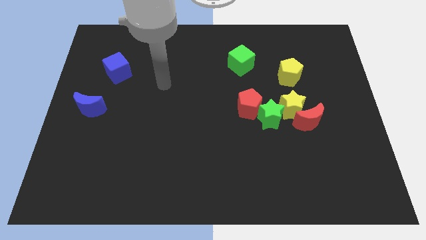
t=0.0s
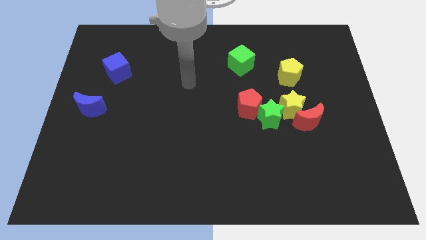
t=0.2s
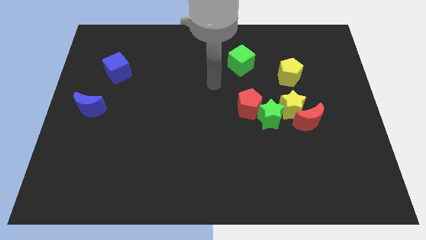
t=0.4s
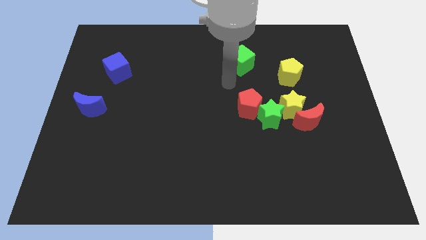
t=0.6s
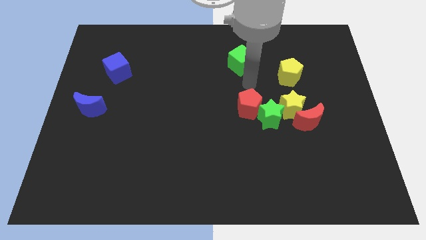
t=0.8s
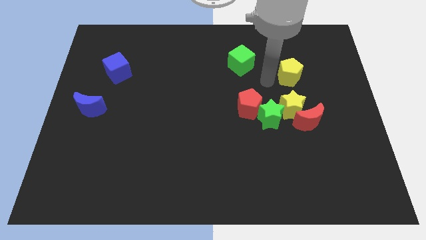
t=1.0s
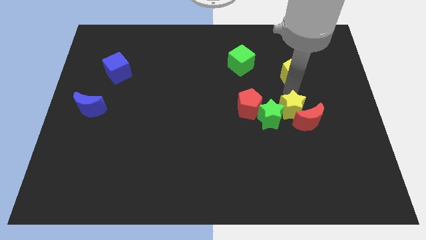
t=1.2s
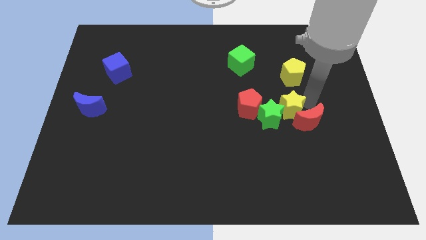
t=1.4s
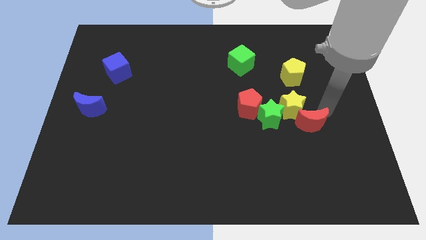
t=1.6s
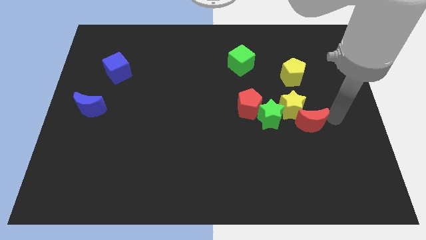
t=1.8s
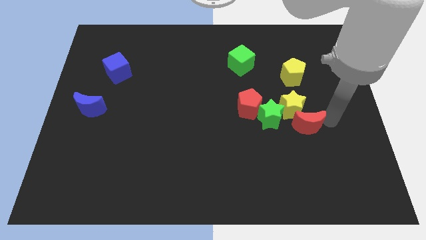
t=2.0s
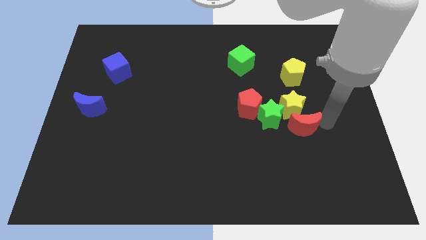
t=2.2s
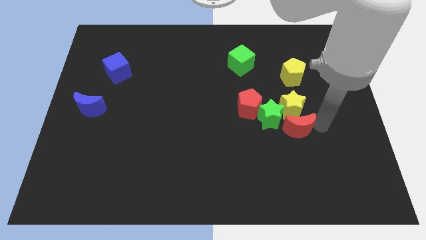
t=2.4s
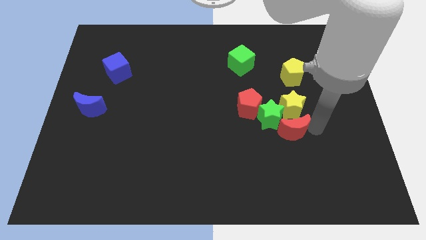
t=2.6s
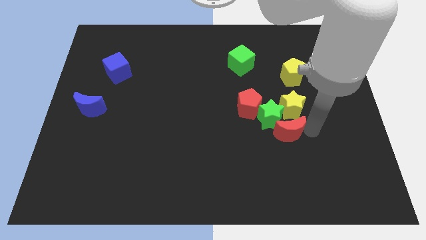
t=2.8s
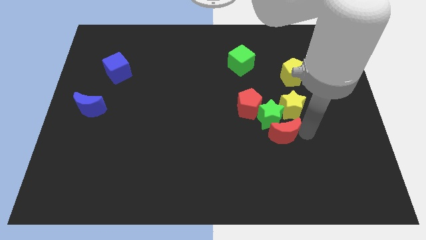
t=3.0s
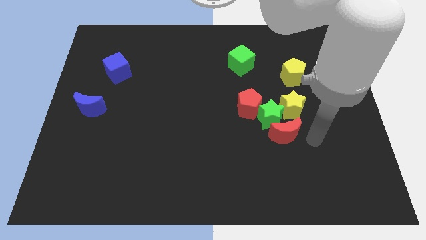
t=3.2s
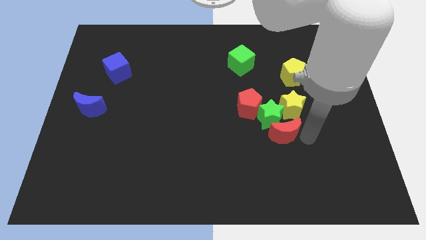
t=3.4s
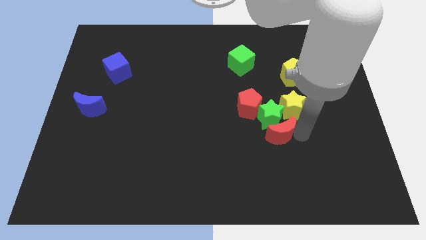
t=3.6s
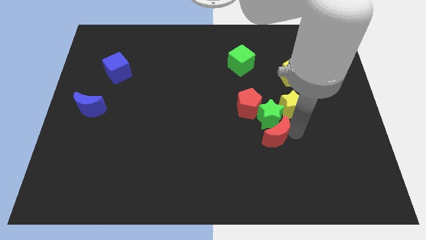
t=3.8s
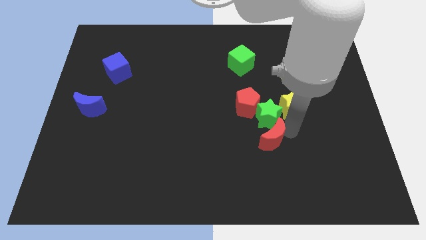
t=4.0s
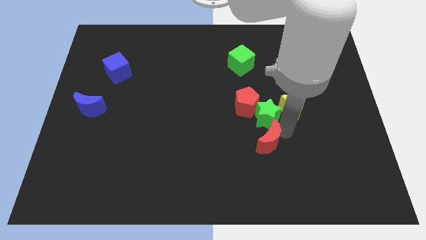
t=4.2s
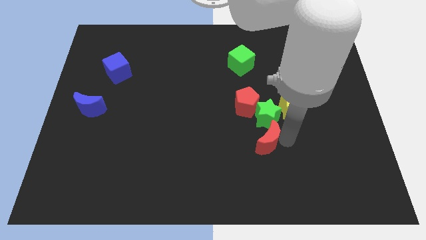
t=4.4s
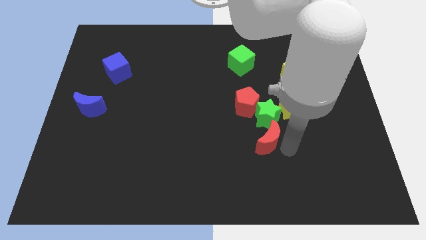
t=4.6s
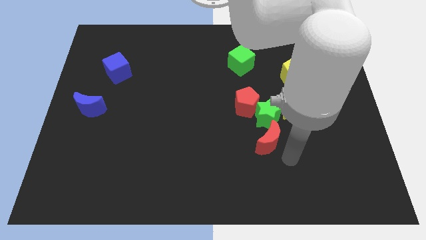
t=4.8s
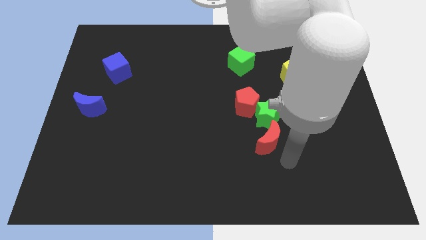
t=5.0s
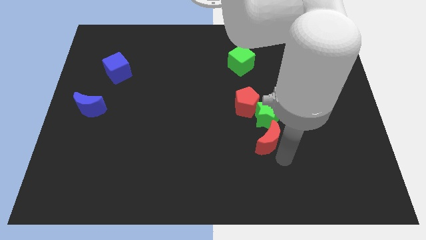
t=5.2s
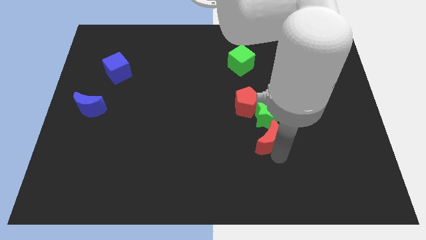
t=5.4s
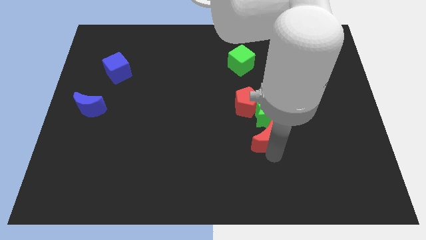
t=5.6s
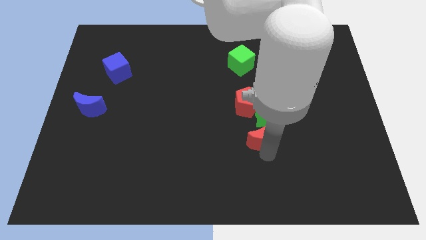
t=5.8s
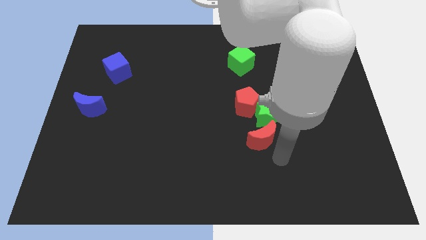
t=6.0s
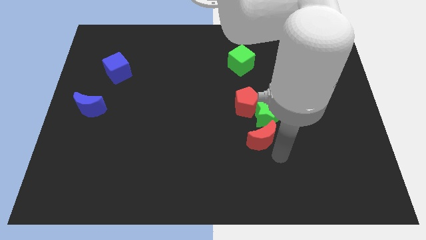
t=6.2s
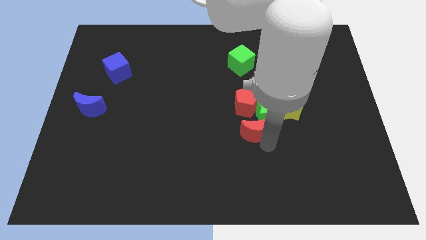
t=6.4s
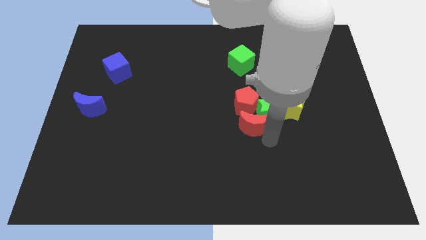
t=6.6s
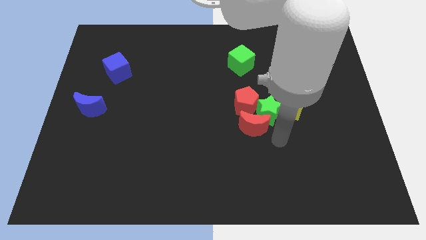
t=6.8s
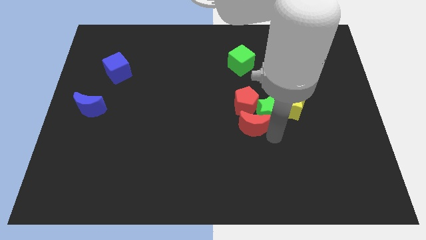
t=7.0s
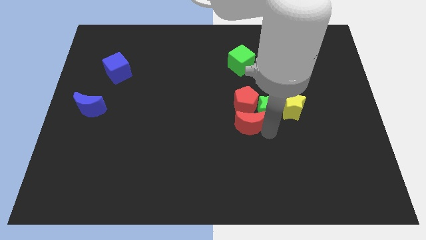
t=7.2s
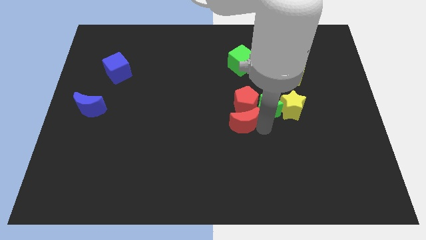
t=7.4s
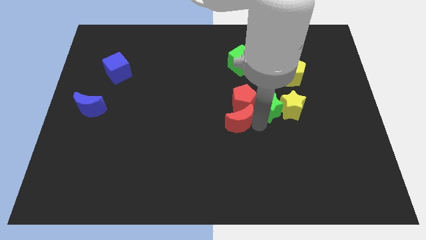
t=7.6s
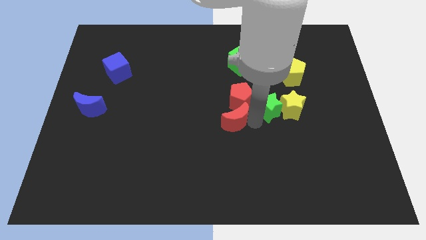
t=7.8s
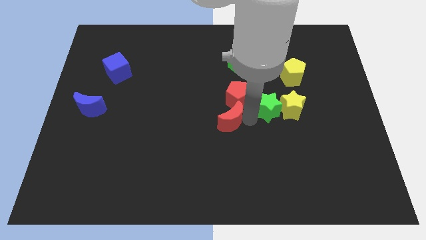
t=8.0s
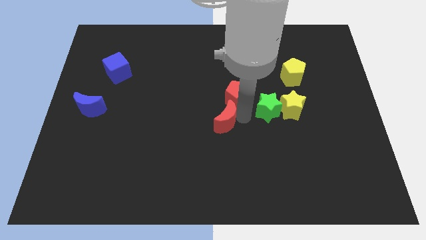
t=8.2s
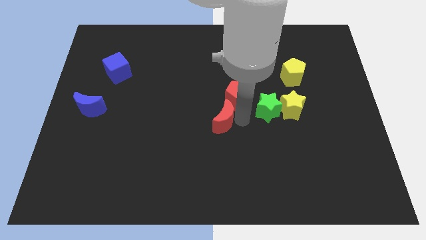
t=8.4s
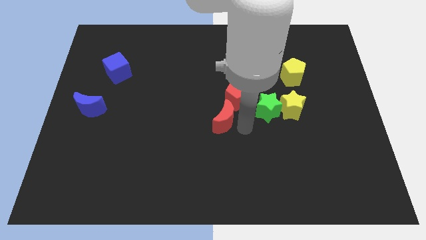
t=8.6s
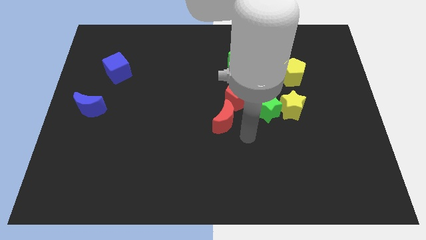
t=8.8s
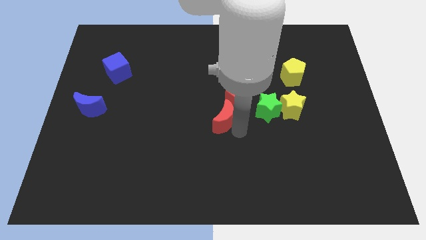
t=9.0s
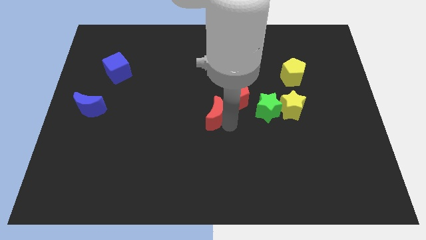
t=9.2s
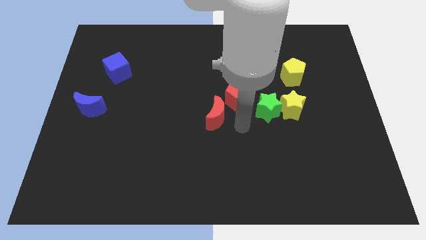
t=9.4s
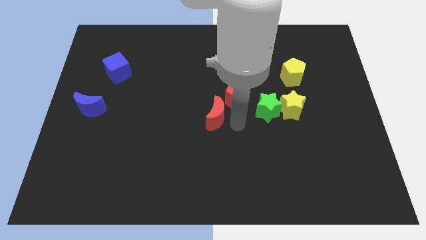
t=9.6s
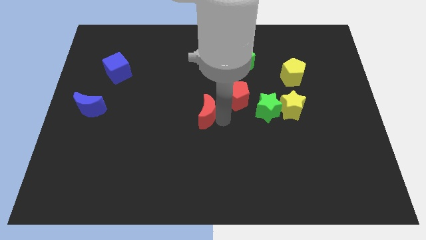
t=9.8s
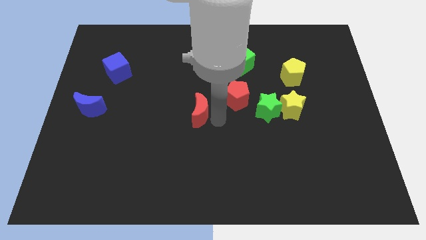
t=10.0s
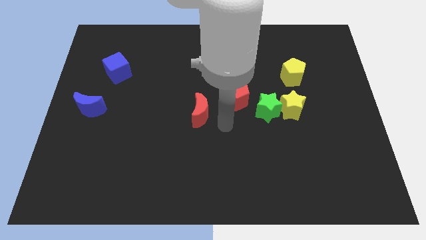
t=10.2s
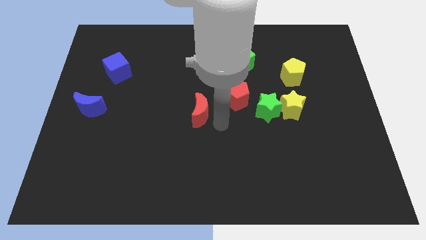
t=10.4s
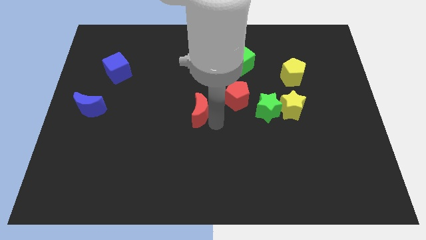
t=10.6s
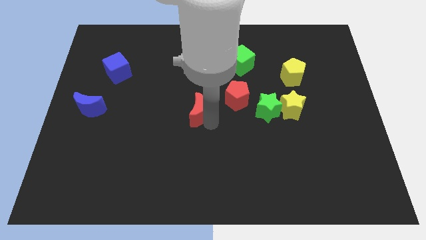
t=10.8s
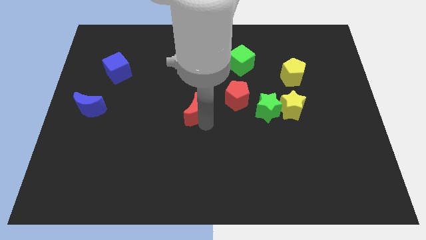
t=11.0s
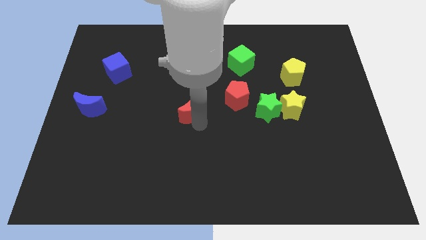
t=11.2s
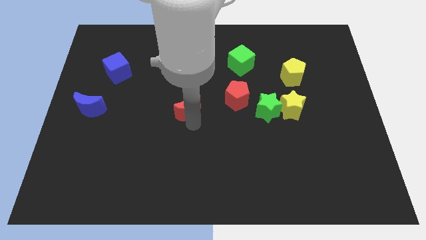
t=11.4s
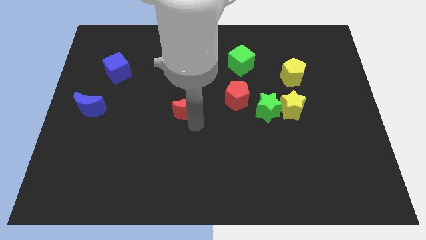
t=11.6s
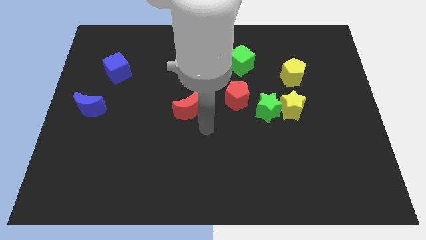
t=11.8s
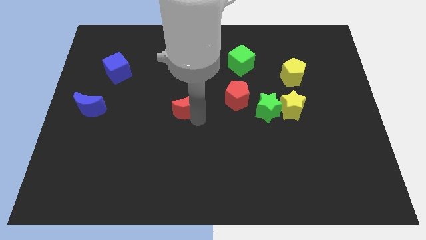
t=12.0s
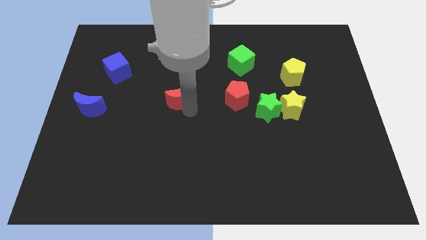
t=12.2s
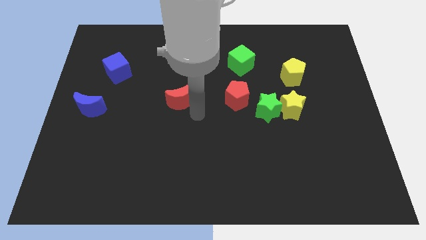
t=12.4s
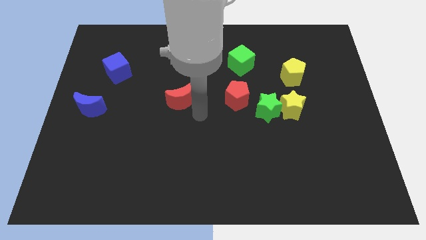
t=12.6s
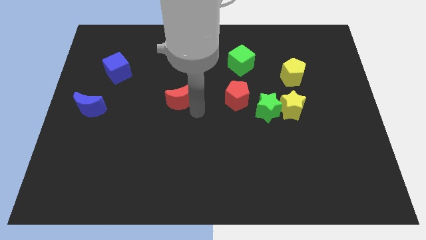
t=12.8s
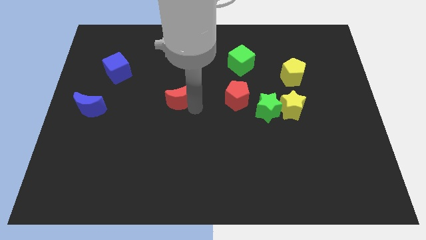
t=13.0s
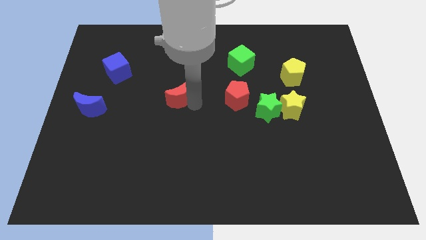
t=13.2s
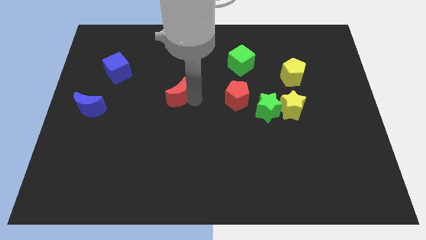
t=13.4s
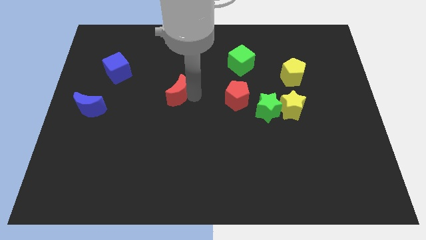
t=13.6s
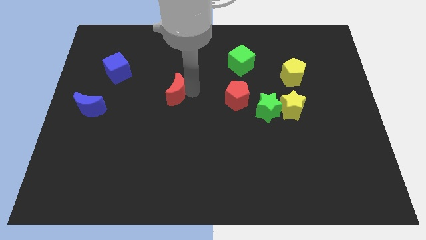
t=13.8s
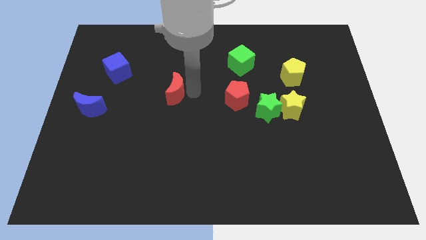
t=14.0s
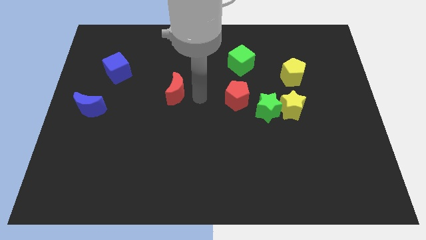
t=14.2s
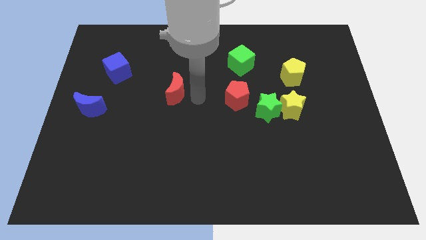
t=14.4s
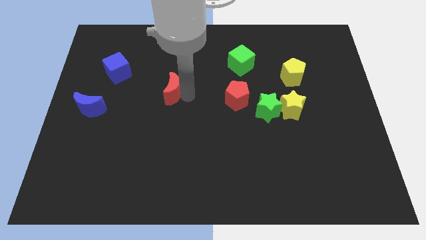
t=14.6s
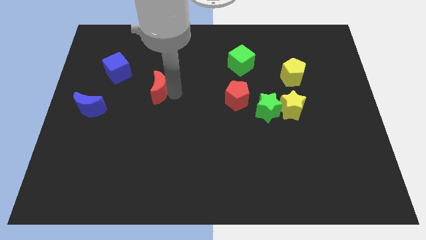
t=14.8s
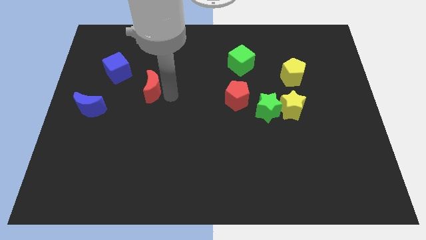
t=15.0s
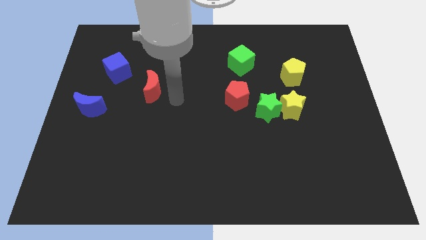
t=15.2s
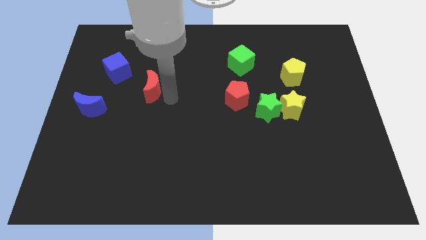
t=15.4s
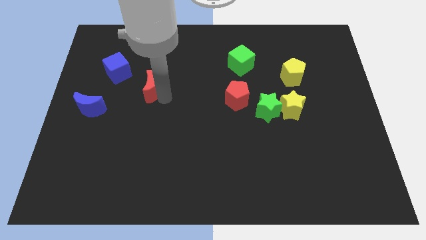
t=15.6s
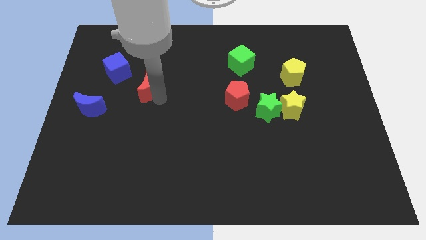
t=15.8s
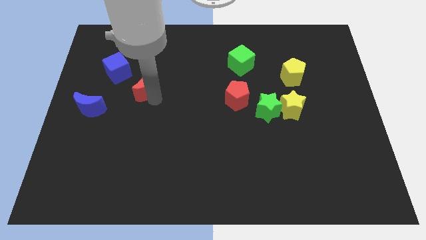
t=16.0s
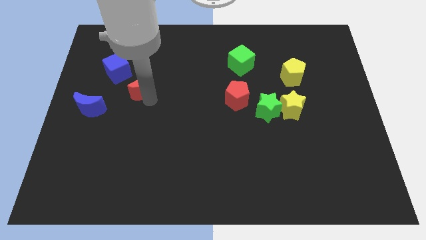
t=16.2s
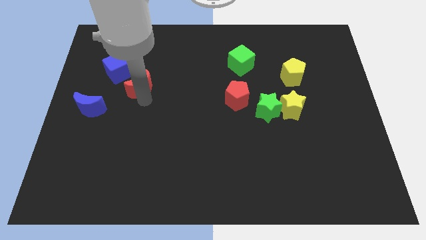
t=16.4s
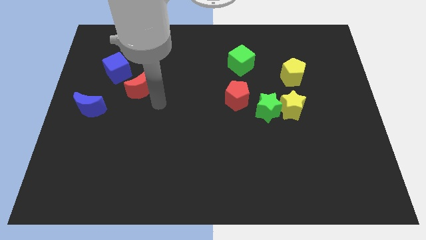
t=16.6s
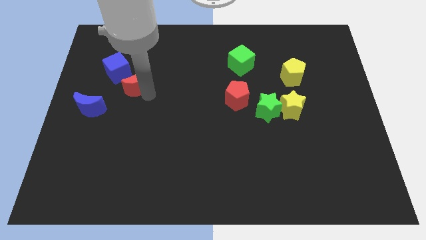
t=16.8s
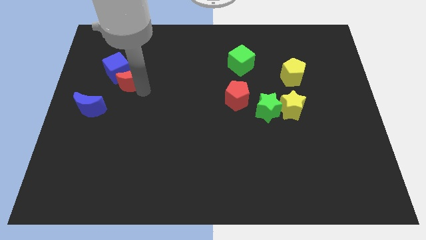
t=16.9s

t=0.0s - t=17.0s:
push the red moon close to the blue cube
